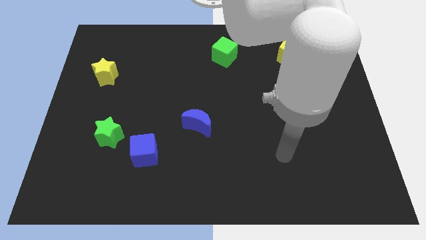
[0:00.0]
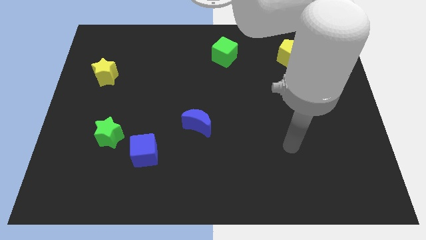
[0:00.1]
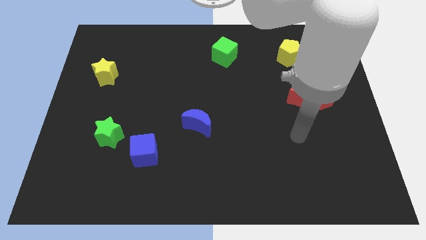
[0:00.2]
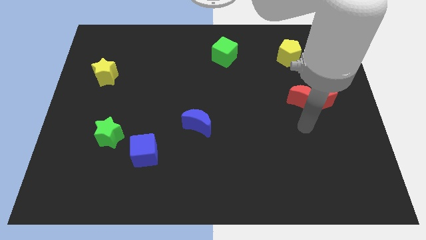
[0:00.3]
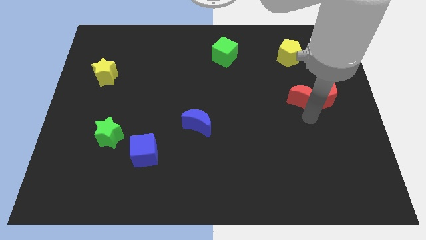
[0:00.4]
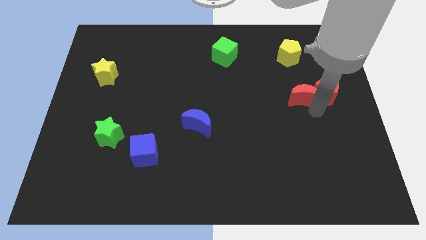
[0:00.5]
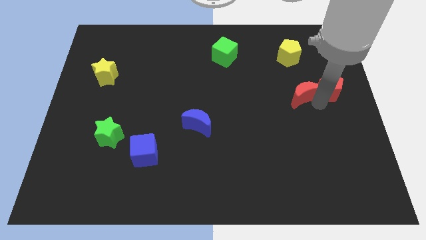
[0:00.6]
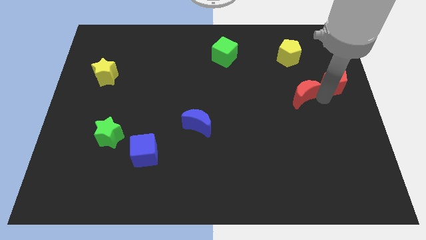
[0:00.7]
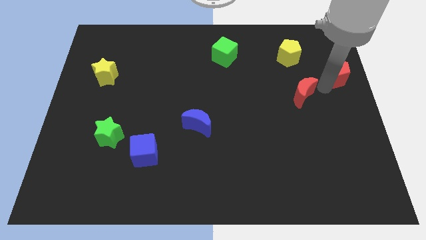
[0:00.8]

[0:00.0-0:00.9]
pull the red moon apart from the red pentagon

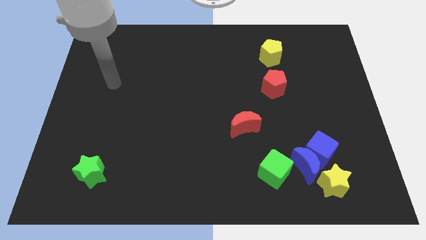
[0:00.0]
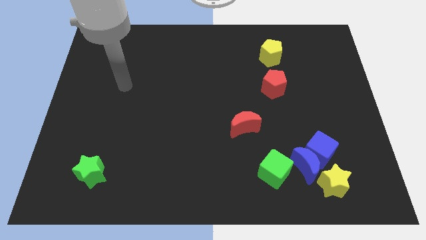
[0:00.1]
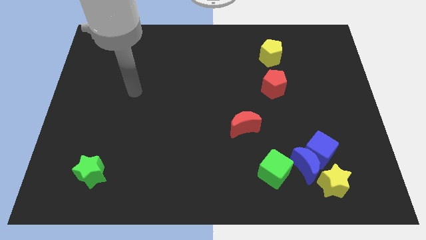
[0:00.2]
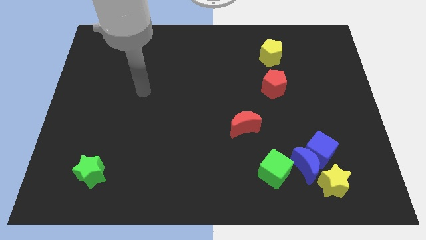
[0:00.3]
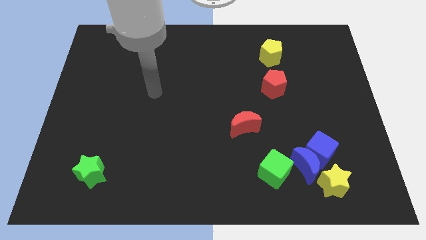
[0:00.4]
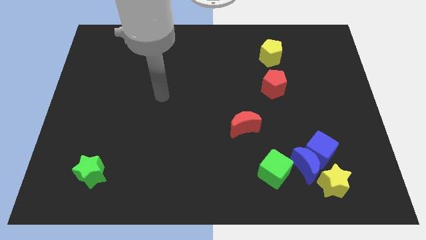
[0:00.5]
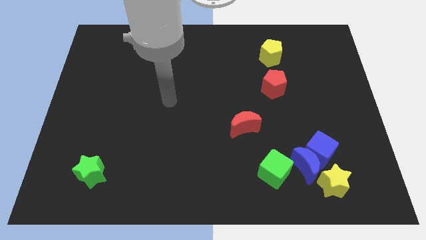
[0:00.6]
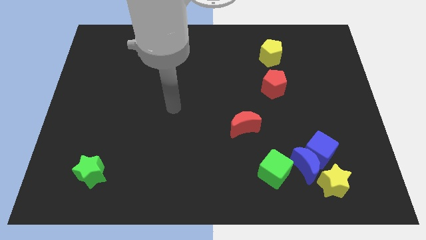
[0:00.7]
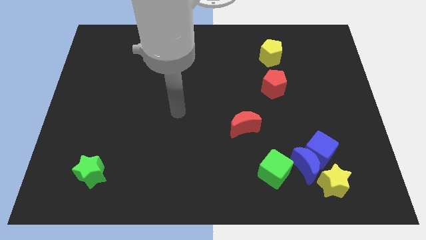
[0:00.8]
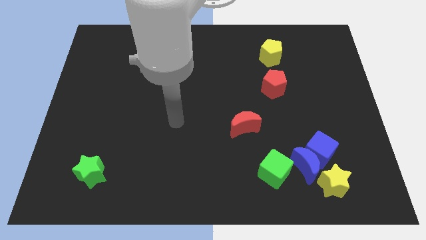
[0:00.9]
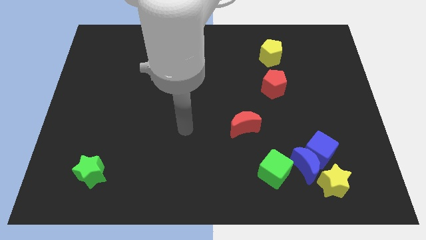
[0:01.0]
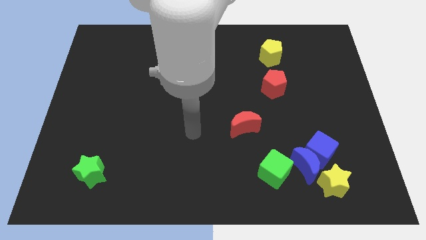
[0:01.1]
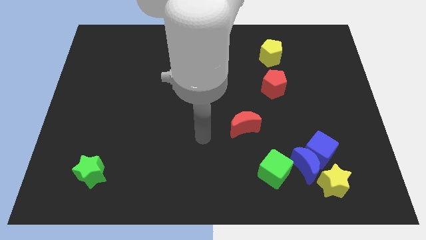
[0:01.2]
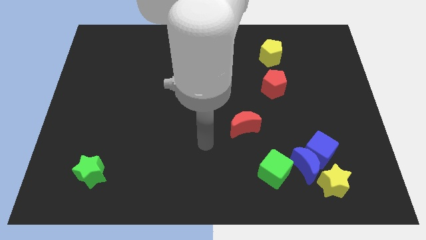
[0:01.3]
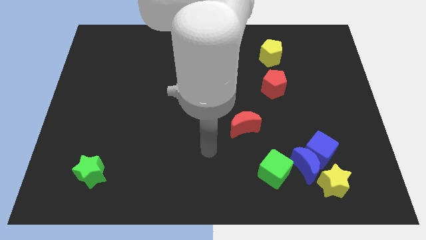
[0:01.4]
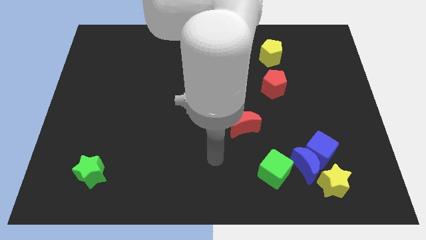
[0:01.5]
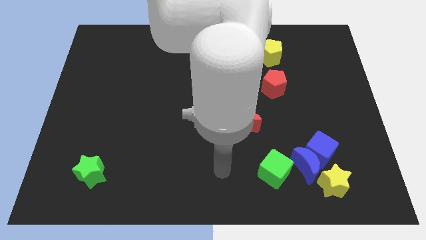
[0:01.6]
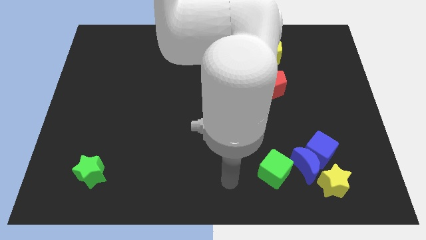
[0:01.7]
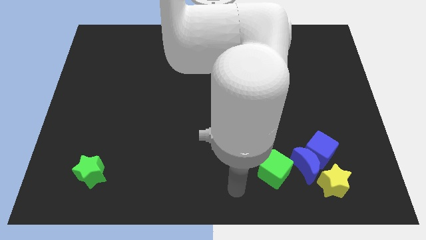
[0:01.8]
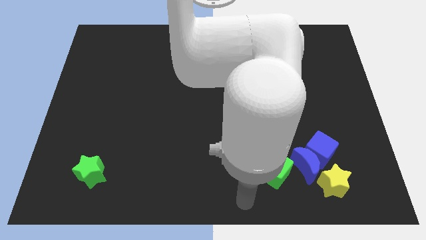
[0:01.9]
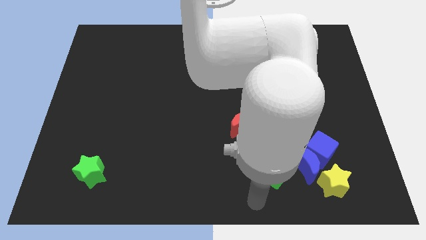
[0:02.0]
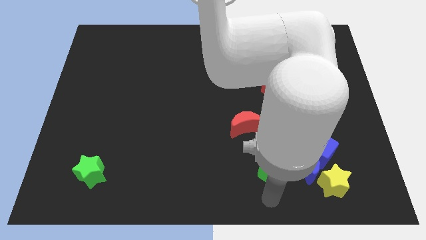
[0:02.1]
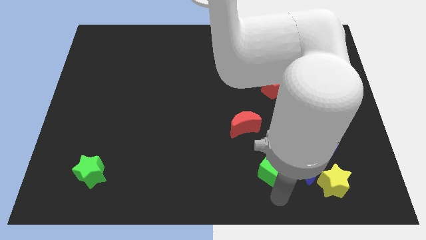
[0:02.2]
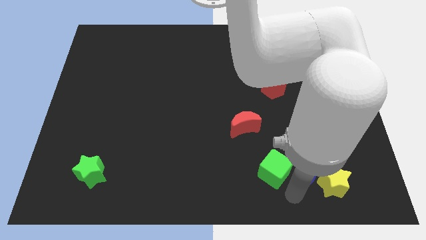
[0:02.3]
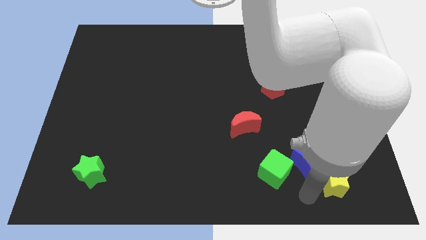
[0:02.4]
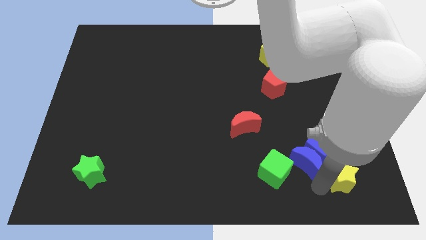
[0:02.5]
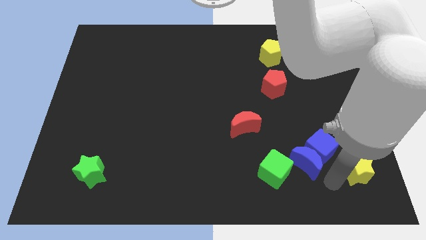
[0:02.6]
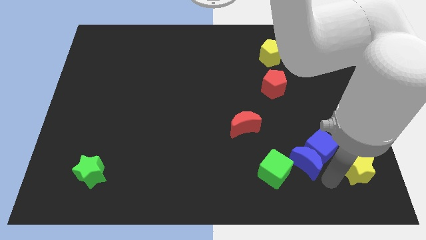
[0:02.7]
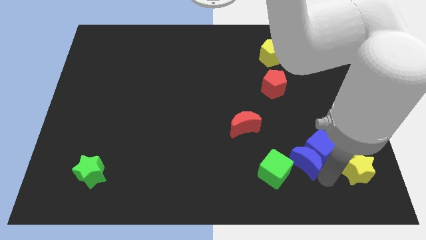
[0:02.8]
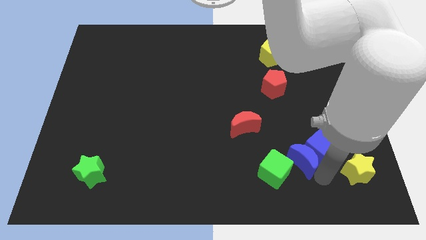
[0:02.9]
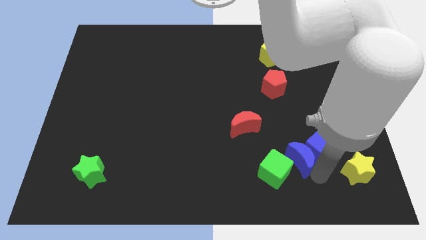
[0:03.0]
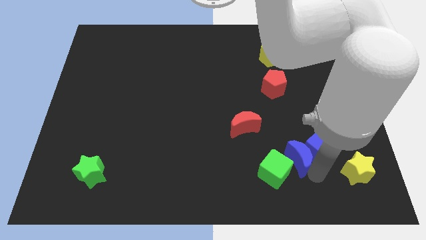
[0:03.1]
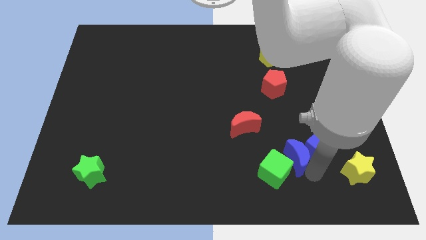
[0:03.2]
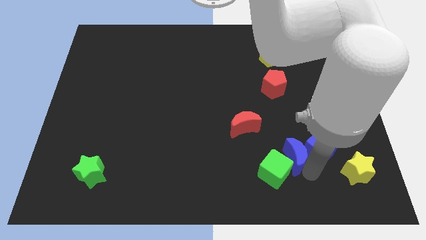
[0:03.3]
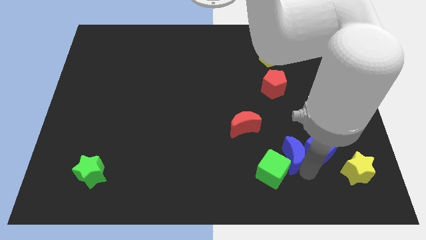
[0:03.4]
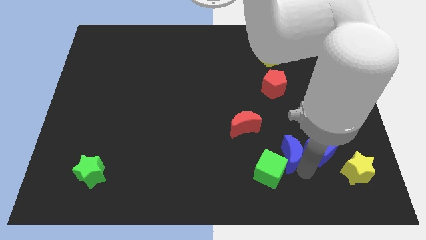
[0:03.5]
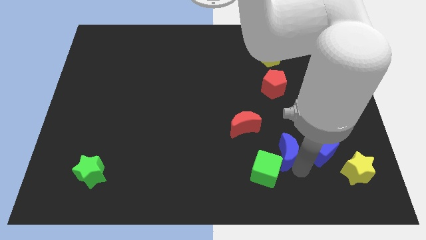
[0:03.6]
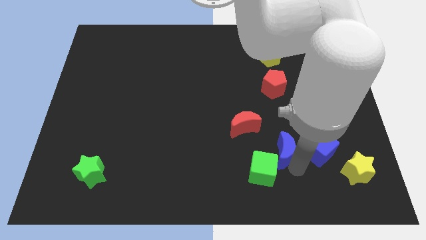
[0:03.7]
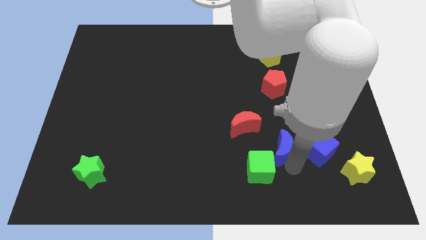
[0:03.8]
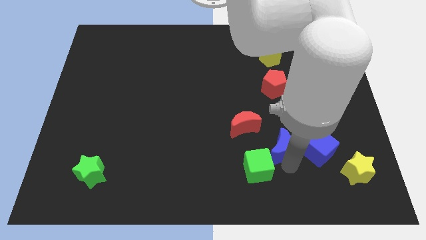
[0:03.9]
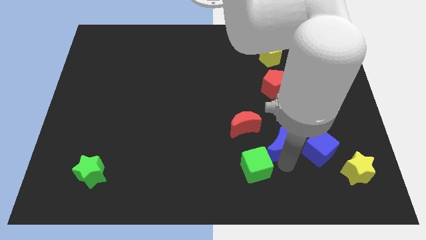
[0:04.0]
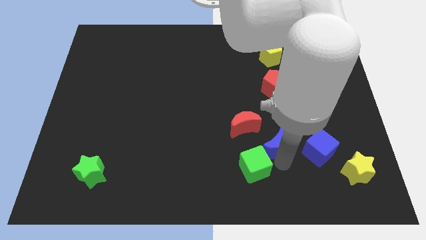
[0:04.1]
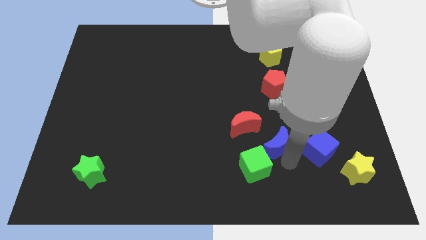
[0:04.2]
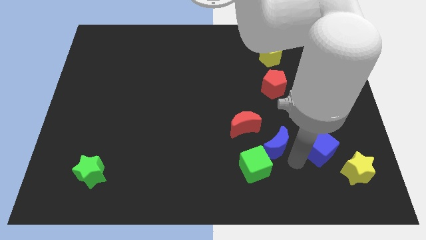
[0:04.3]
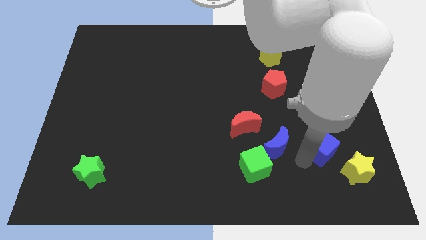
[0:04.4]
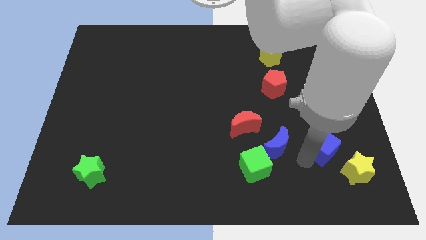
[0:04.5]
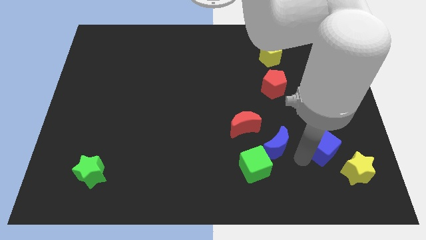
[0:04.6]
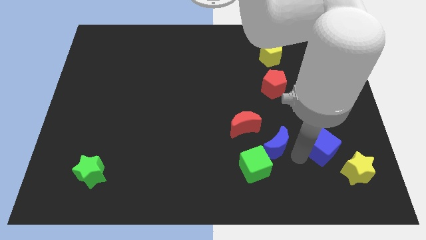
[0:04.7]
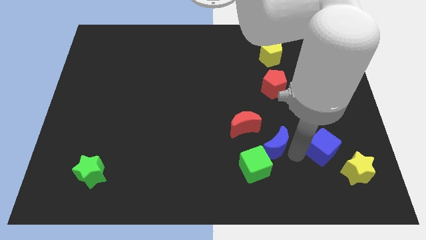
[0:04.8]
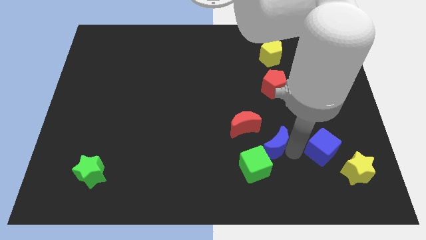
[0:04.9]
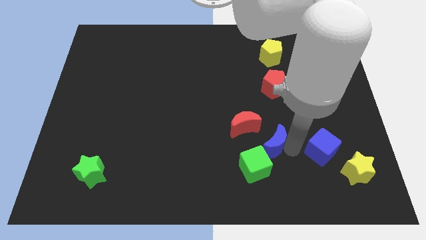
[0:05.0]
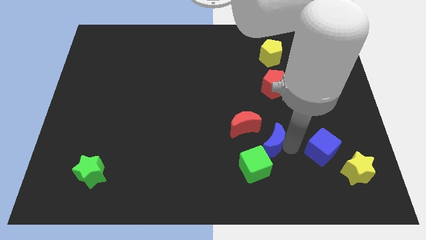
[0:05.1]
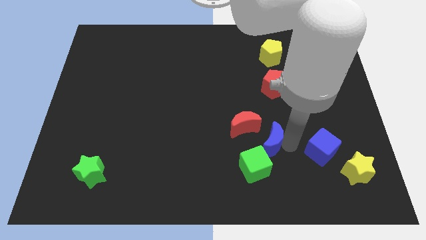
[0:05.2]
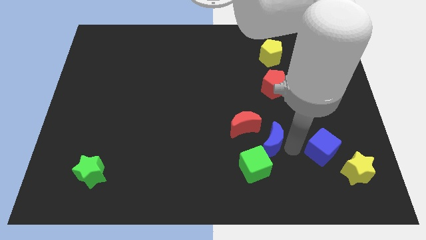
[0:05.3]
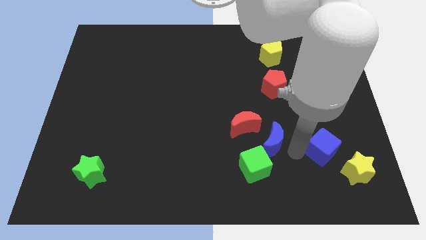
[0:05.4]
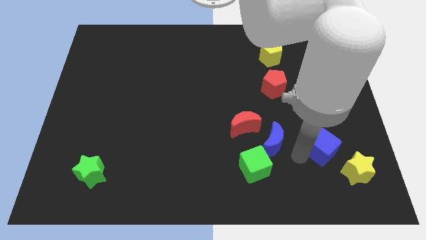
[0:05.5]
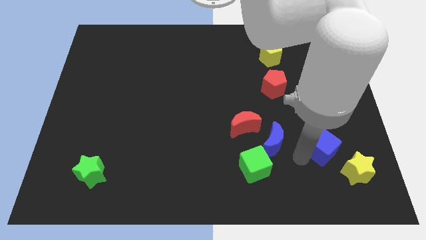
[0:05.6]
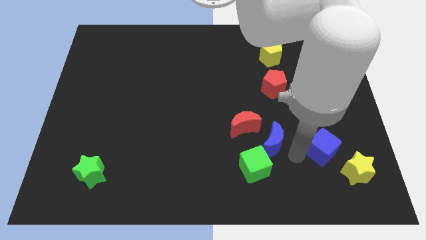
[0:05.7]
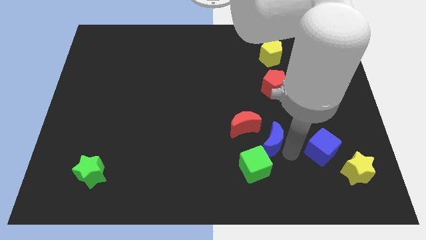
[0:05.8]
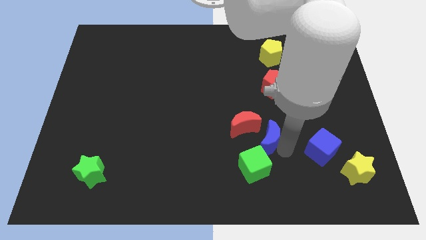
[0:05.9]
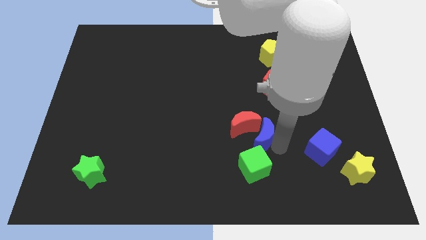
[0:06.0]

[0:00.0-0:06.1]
separate the blue moon from the blue cube, yellow star, and green cube

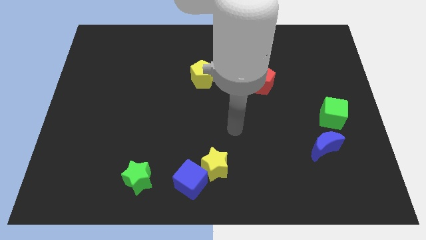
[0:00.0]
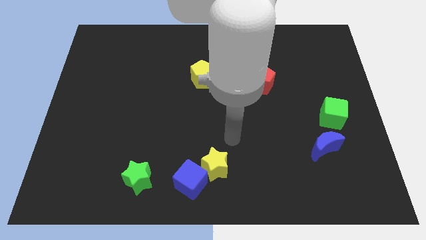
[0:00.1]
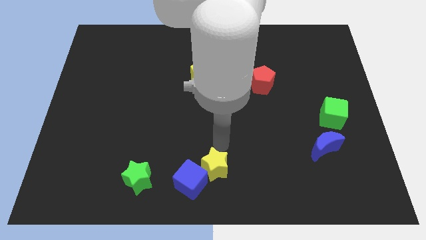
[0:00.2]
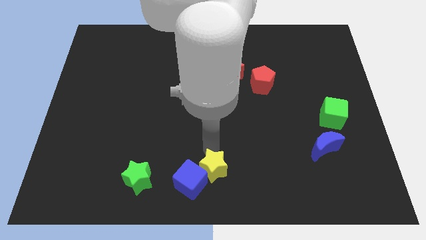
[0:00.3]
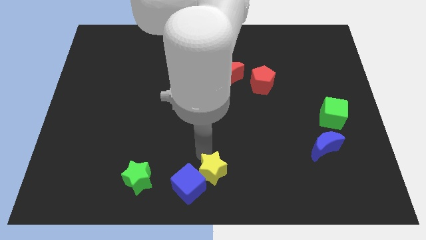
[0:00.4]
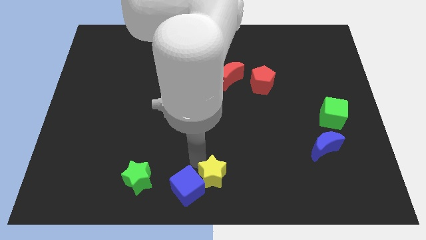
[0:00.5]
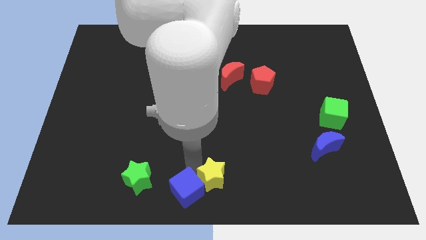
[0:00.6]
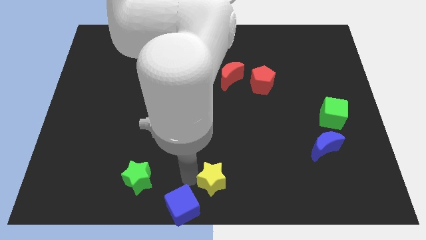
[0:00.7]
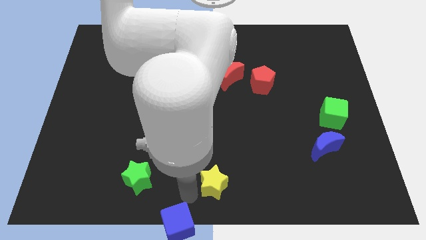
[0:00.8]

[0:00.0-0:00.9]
separate the yellow star from the blue cube

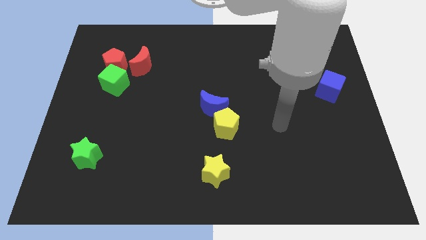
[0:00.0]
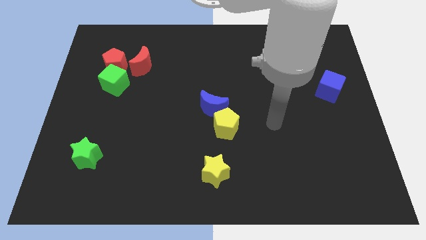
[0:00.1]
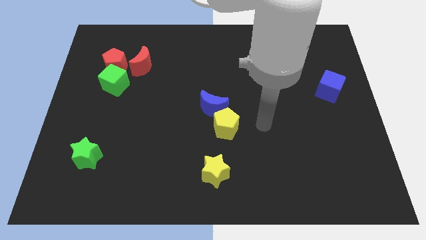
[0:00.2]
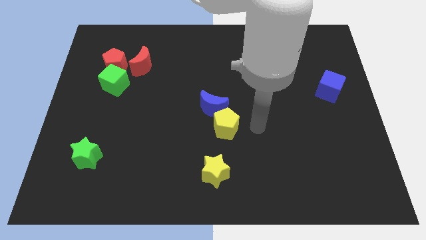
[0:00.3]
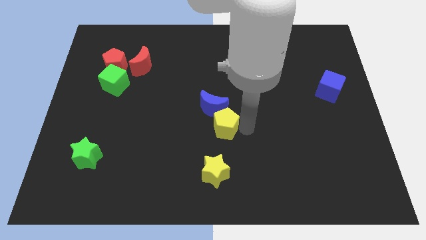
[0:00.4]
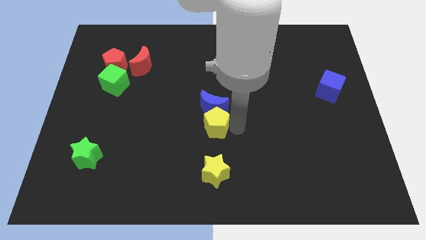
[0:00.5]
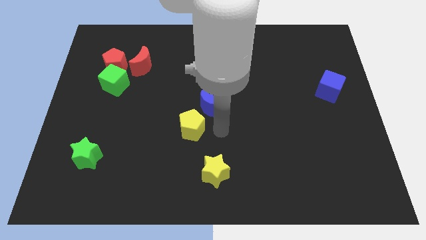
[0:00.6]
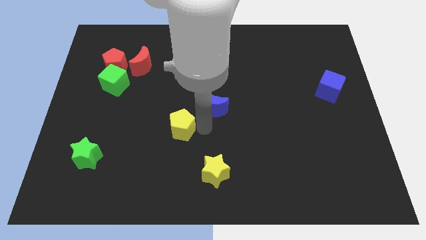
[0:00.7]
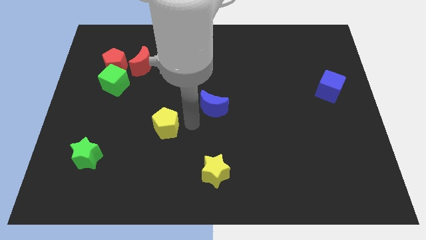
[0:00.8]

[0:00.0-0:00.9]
pull the blue moon apart from the yellow pentagon

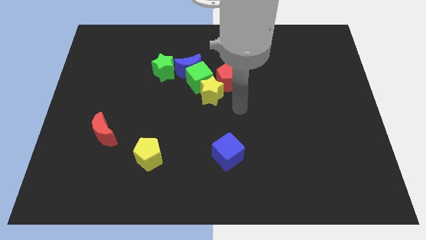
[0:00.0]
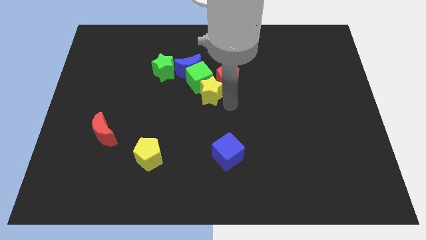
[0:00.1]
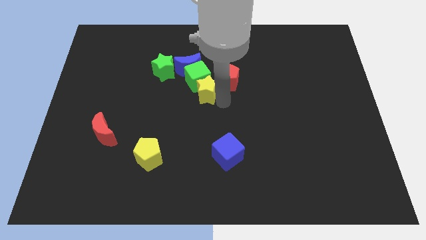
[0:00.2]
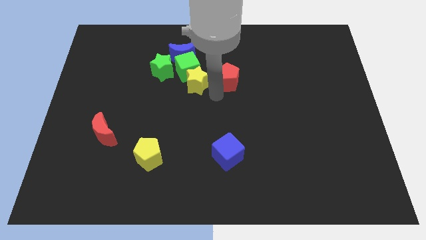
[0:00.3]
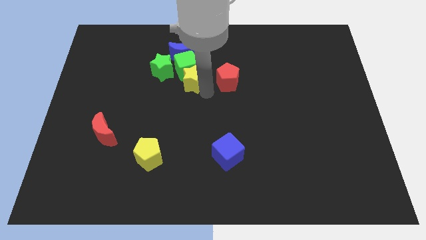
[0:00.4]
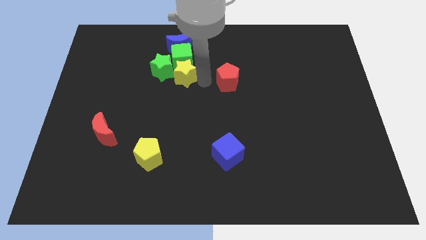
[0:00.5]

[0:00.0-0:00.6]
move the red pentagon away from the yellow star and green cube
